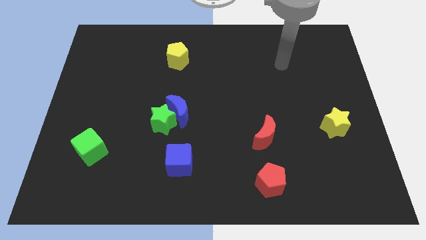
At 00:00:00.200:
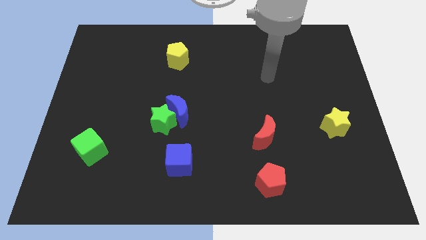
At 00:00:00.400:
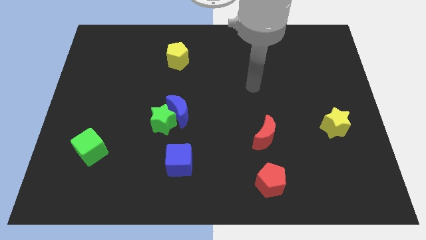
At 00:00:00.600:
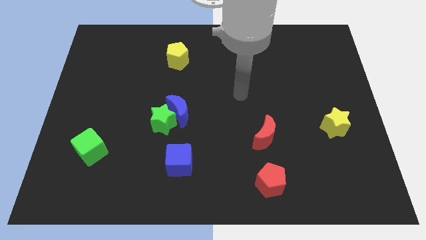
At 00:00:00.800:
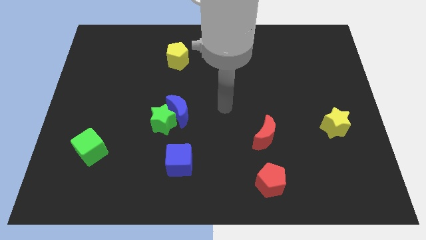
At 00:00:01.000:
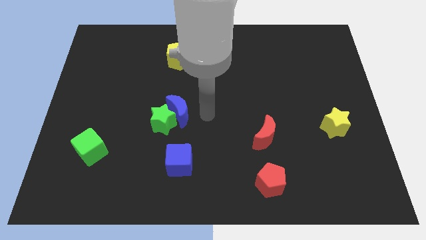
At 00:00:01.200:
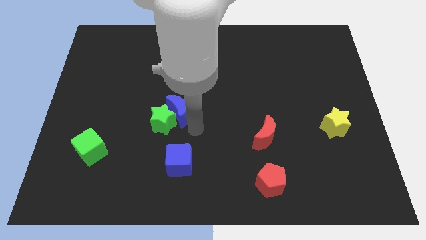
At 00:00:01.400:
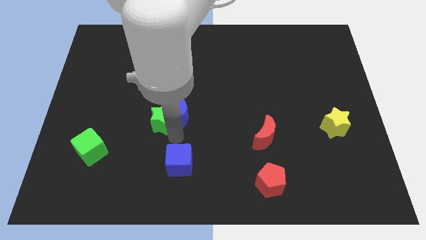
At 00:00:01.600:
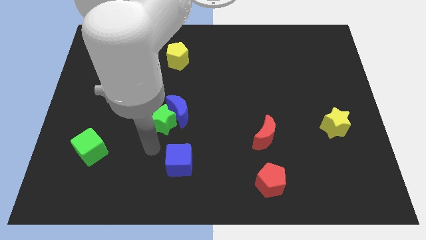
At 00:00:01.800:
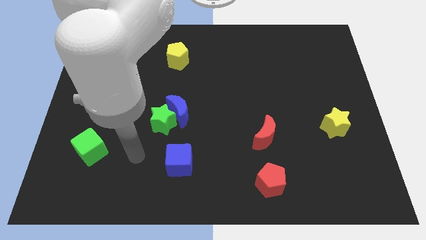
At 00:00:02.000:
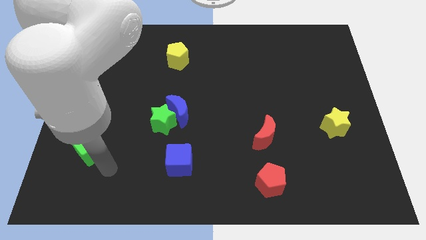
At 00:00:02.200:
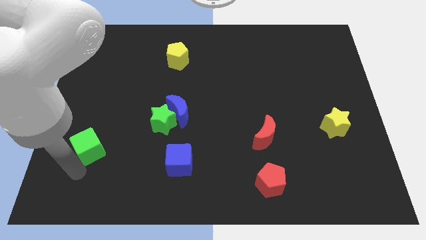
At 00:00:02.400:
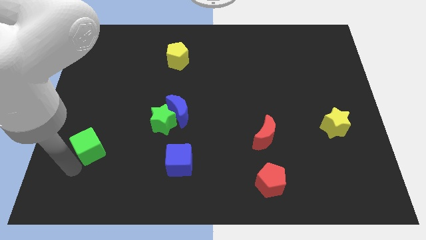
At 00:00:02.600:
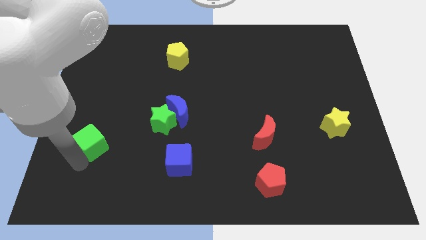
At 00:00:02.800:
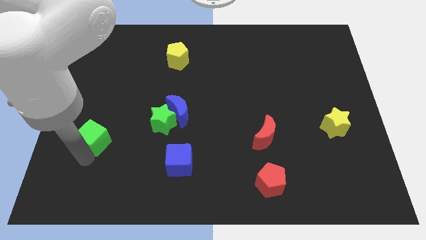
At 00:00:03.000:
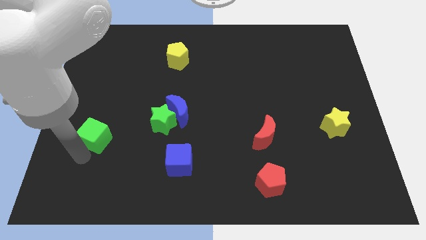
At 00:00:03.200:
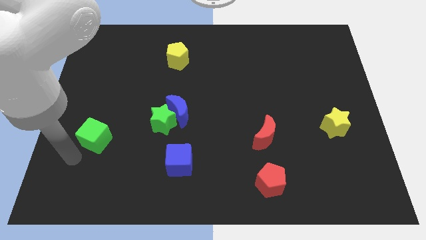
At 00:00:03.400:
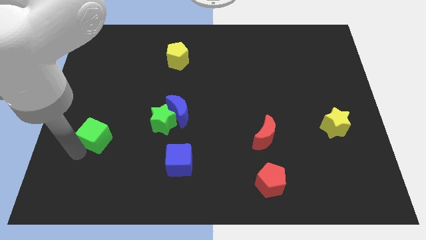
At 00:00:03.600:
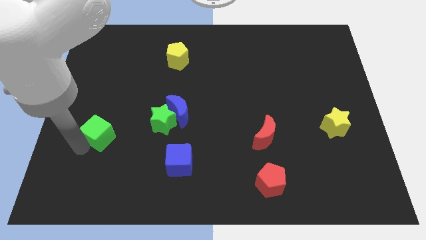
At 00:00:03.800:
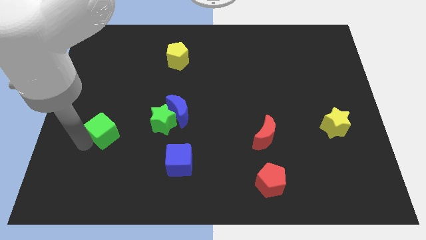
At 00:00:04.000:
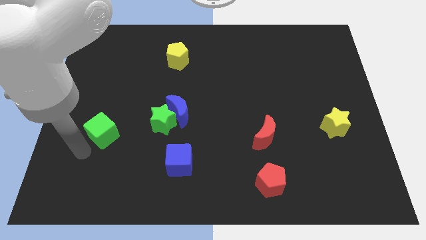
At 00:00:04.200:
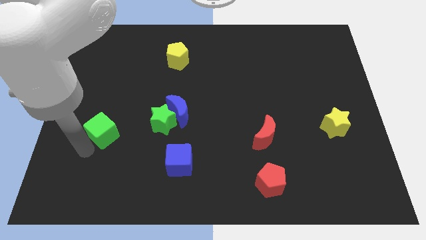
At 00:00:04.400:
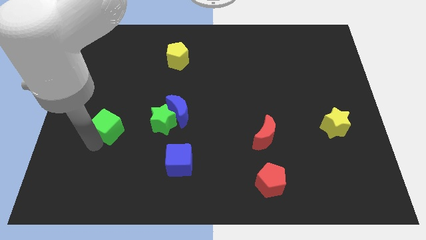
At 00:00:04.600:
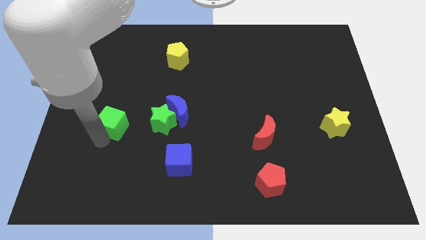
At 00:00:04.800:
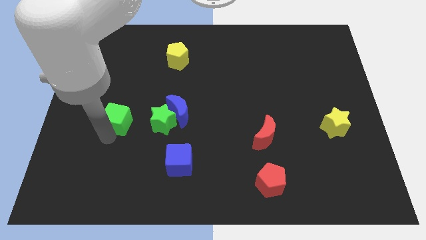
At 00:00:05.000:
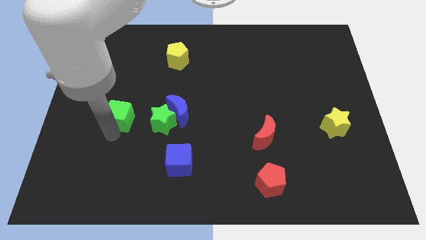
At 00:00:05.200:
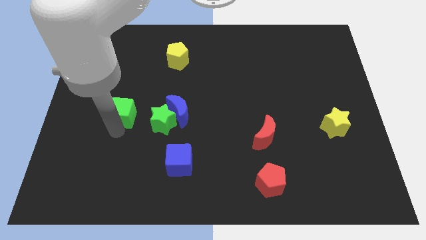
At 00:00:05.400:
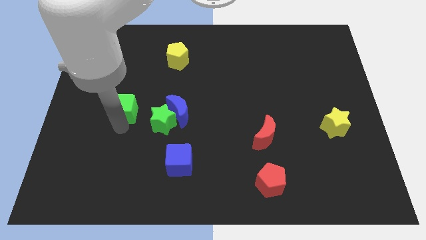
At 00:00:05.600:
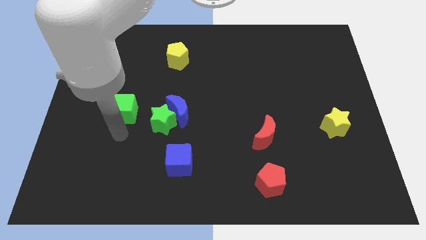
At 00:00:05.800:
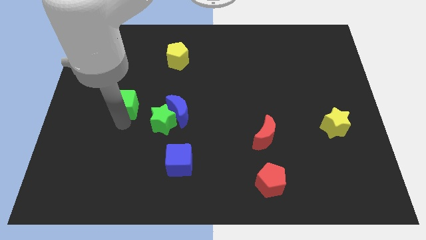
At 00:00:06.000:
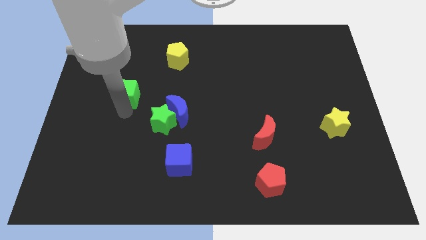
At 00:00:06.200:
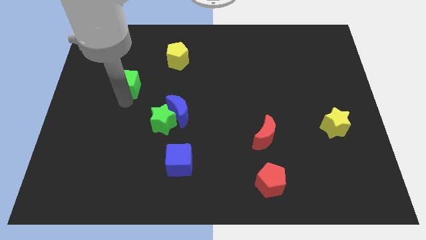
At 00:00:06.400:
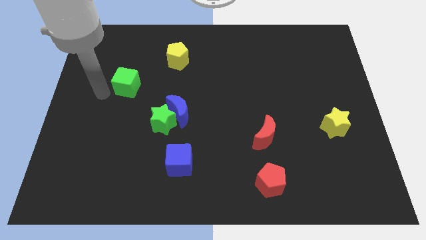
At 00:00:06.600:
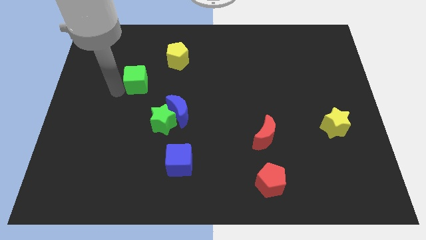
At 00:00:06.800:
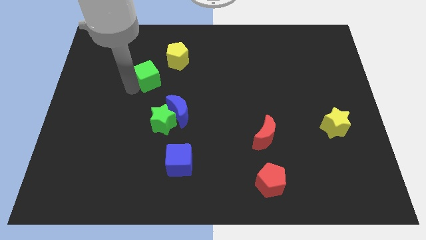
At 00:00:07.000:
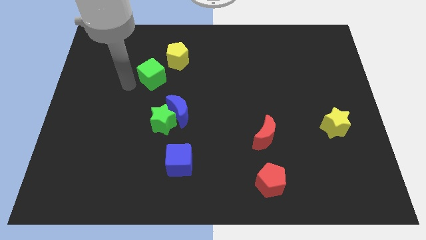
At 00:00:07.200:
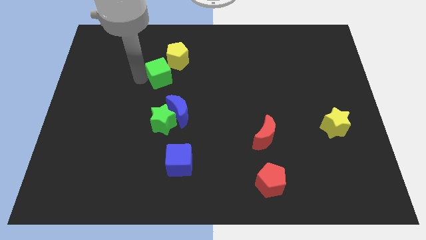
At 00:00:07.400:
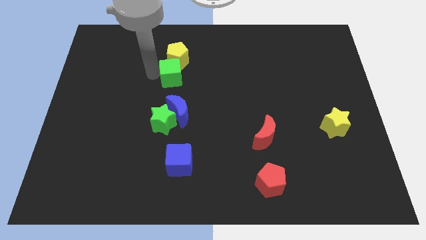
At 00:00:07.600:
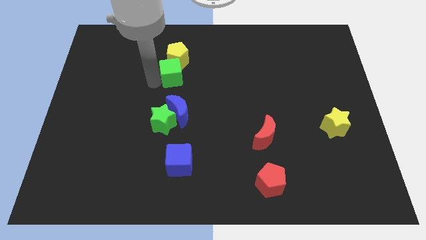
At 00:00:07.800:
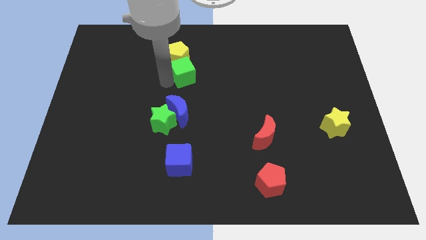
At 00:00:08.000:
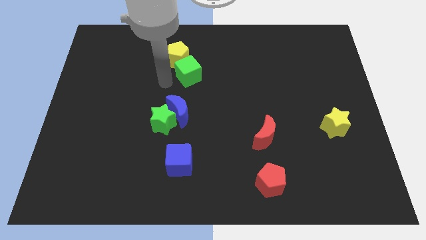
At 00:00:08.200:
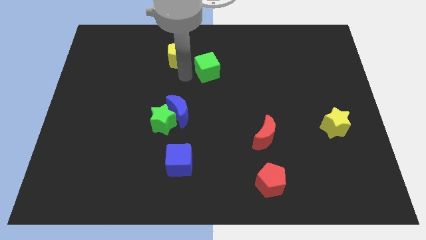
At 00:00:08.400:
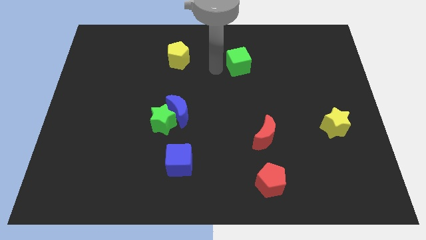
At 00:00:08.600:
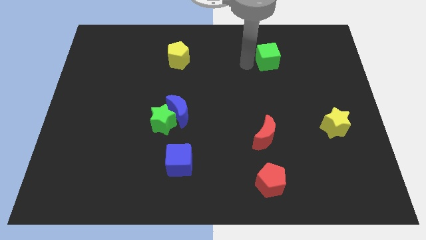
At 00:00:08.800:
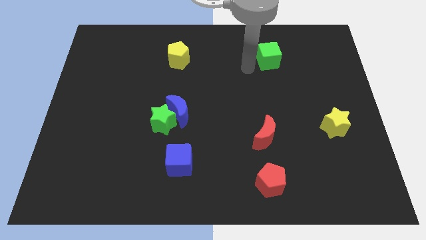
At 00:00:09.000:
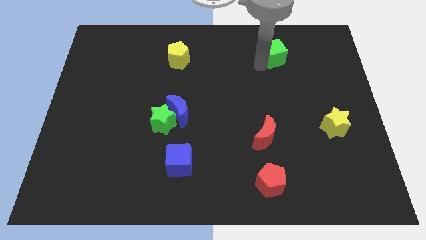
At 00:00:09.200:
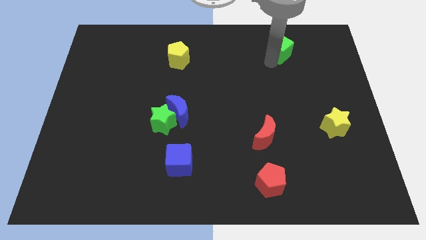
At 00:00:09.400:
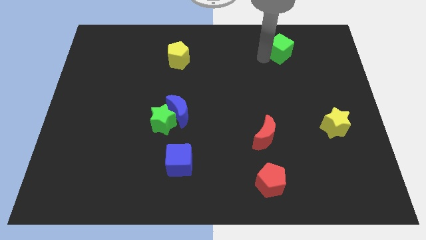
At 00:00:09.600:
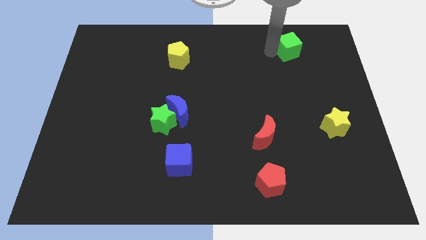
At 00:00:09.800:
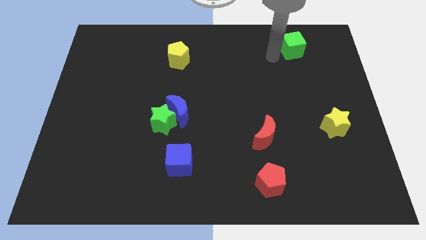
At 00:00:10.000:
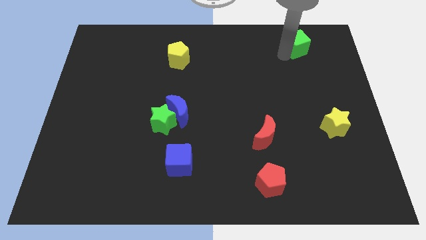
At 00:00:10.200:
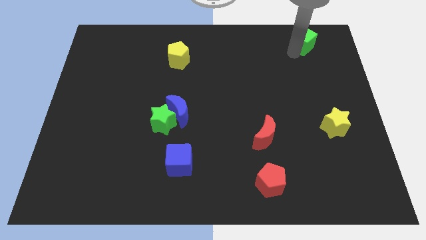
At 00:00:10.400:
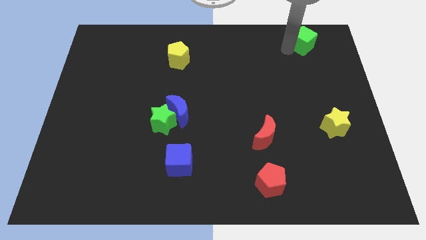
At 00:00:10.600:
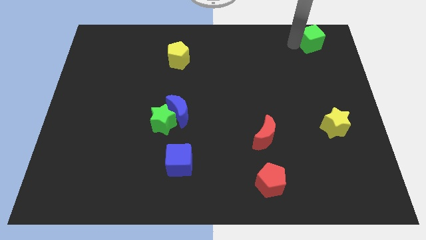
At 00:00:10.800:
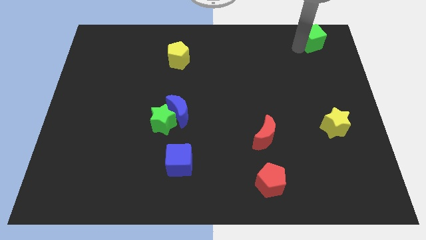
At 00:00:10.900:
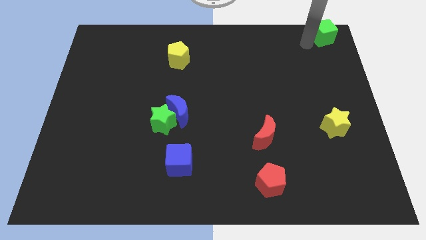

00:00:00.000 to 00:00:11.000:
push the green cube to the top right of the board
